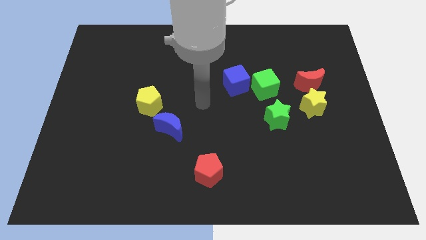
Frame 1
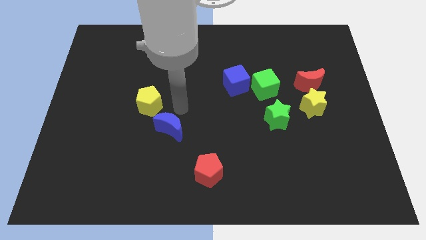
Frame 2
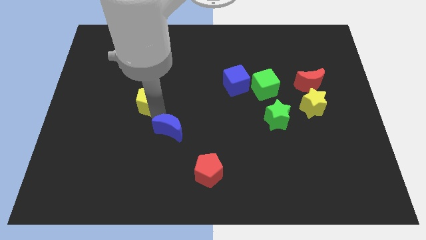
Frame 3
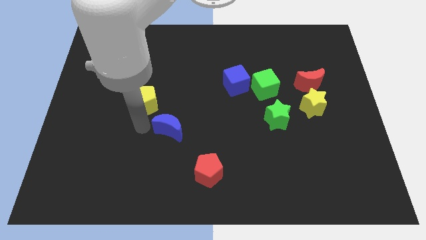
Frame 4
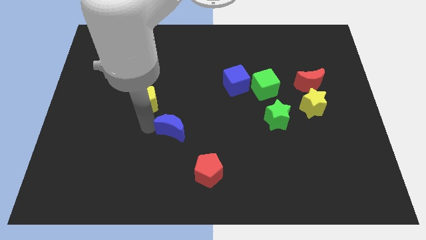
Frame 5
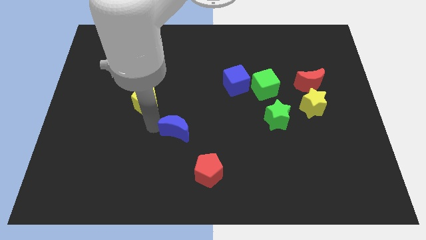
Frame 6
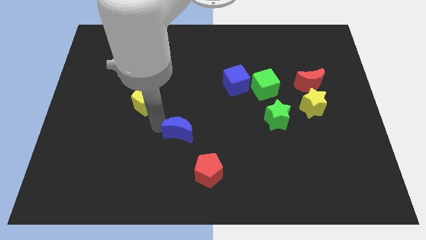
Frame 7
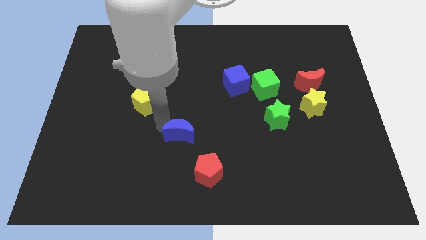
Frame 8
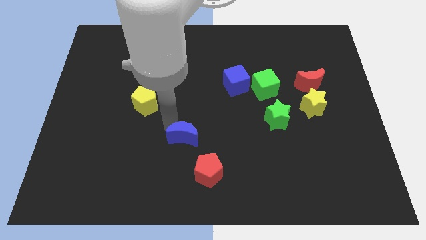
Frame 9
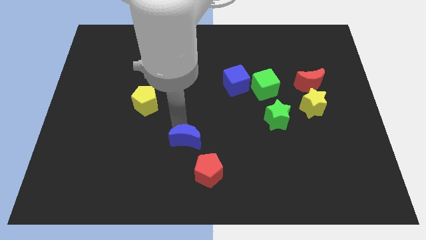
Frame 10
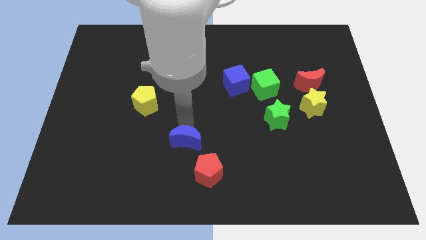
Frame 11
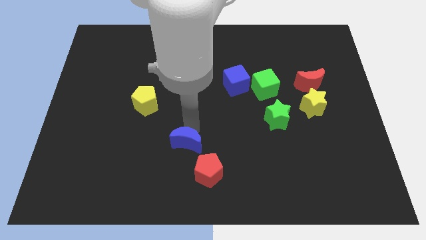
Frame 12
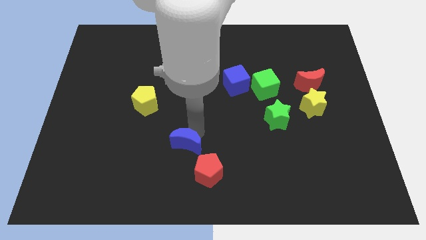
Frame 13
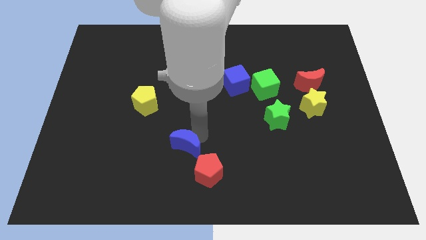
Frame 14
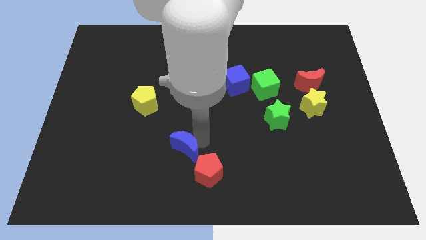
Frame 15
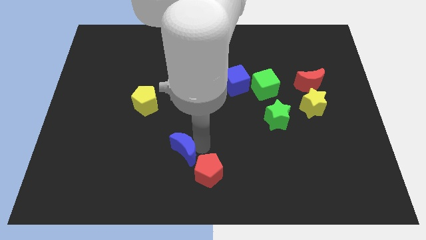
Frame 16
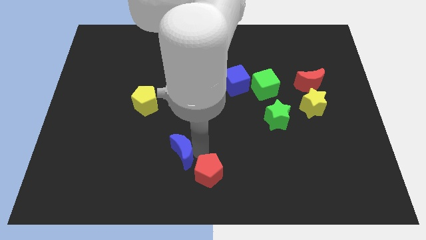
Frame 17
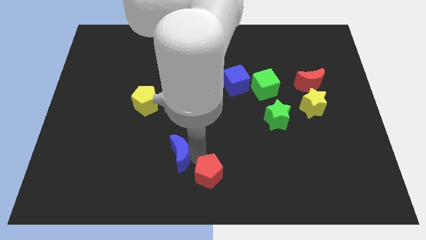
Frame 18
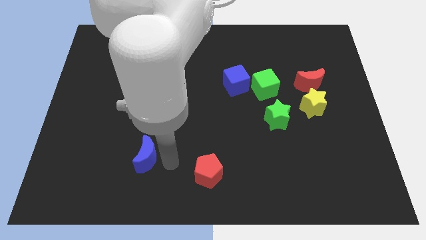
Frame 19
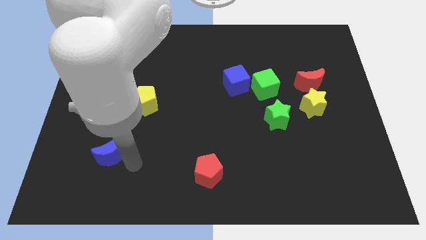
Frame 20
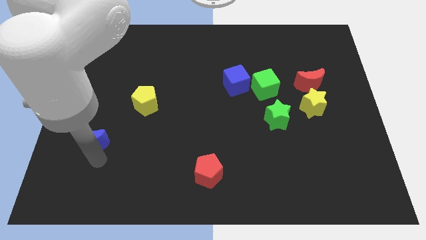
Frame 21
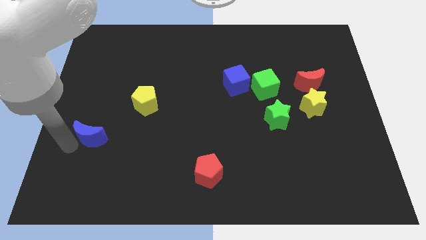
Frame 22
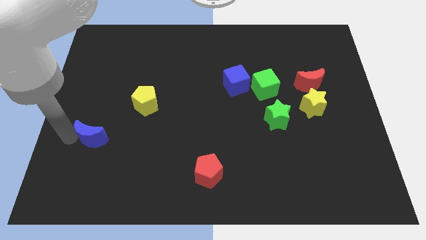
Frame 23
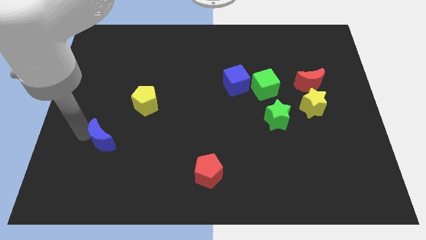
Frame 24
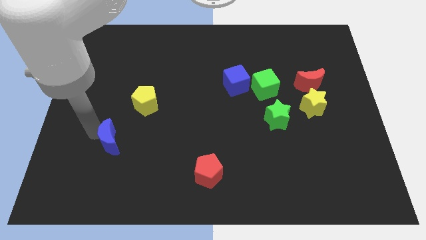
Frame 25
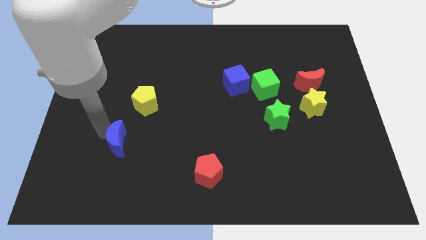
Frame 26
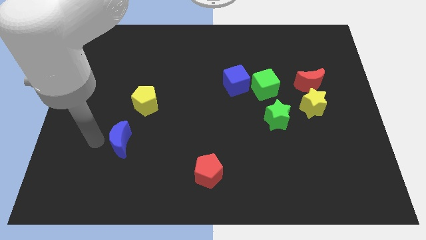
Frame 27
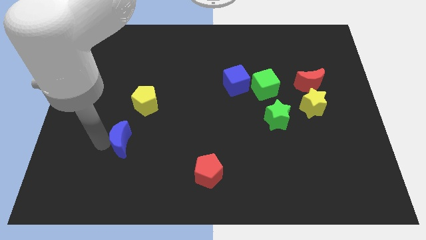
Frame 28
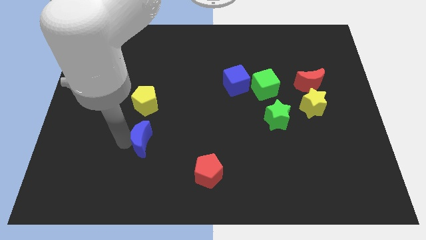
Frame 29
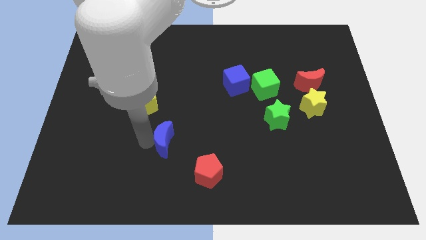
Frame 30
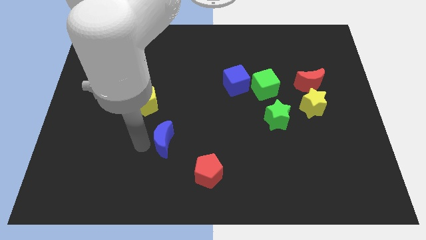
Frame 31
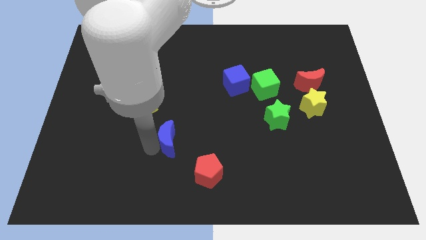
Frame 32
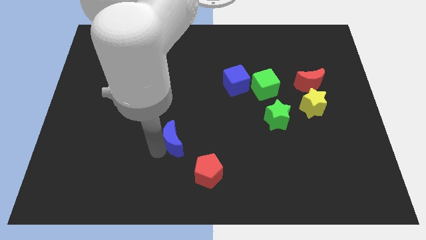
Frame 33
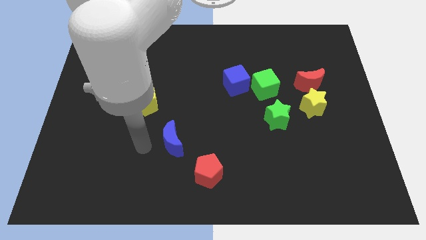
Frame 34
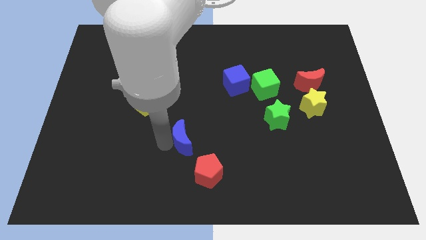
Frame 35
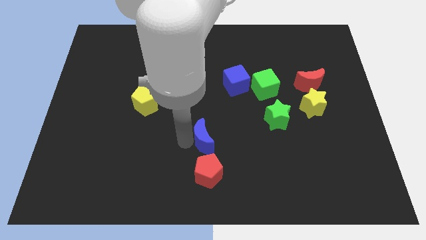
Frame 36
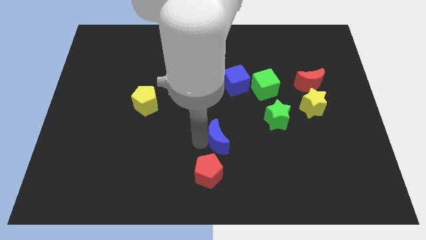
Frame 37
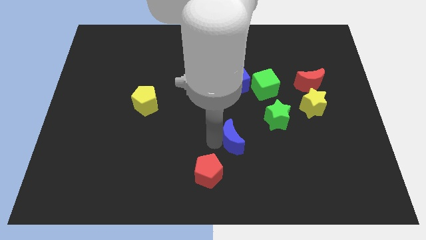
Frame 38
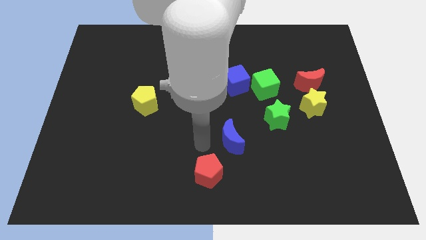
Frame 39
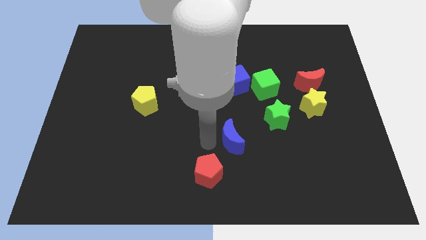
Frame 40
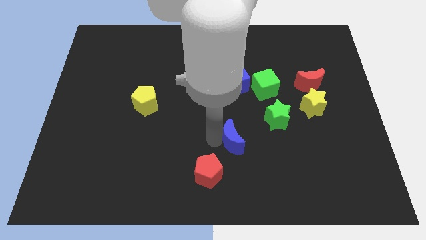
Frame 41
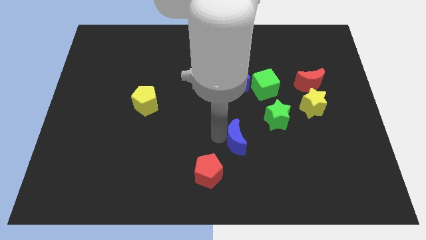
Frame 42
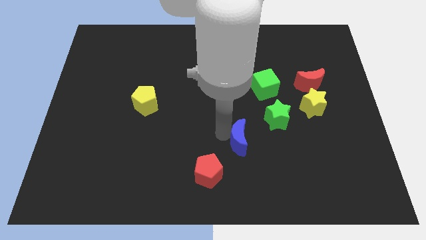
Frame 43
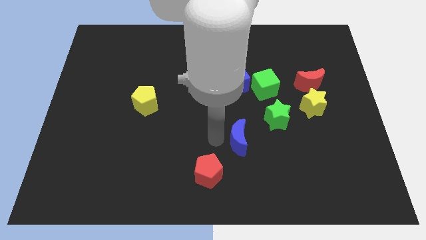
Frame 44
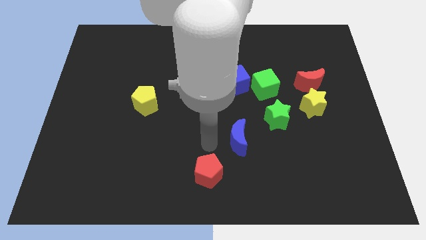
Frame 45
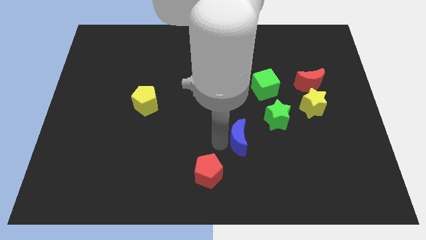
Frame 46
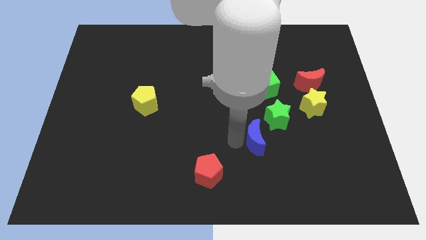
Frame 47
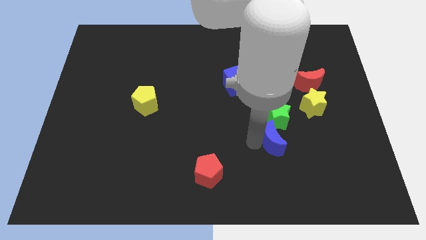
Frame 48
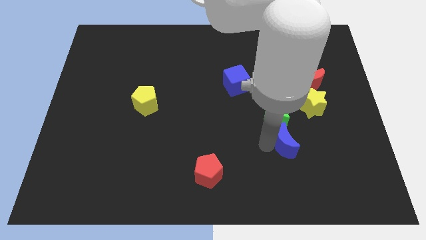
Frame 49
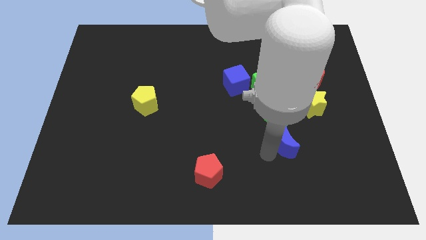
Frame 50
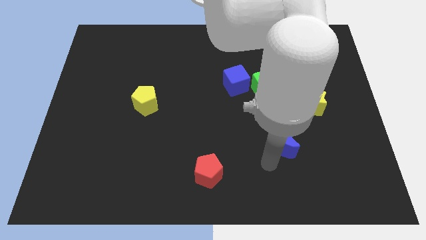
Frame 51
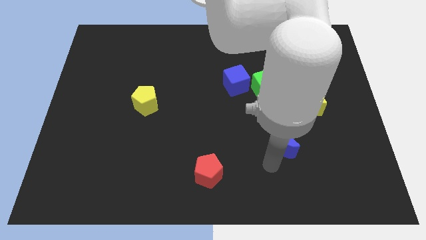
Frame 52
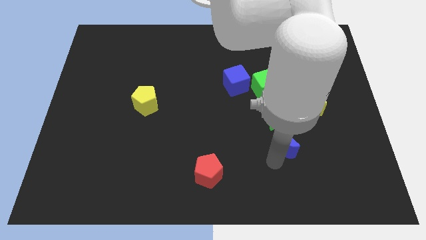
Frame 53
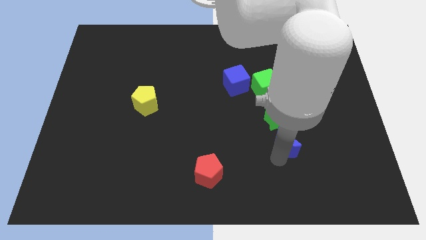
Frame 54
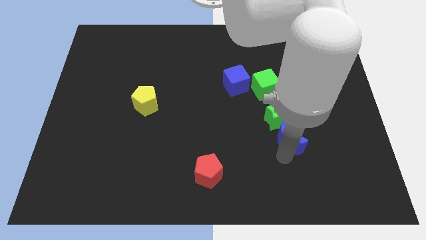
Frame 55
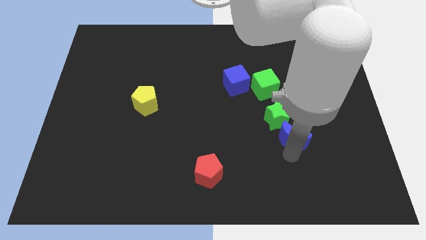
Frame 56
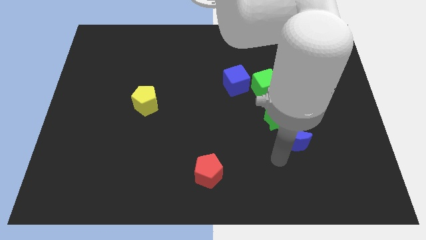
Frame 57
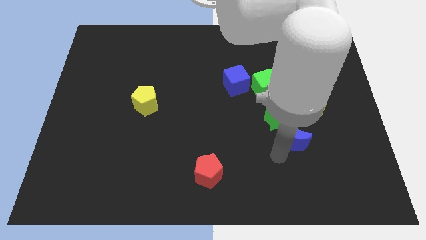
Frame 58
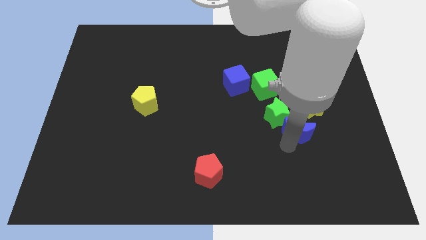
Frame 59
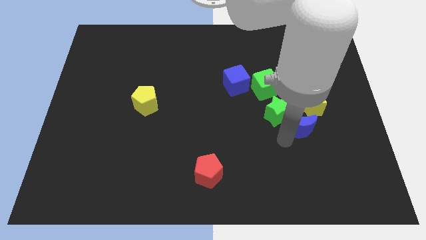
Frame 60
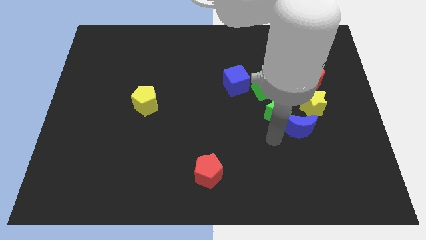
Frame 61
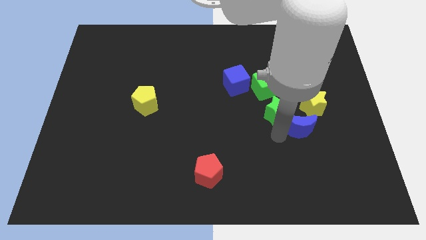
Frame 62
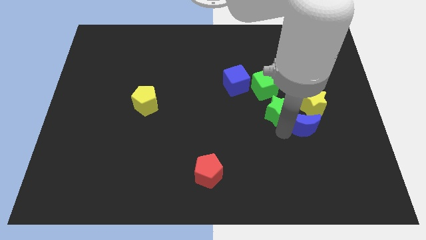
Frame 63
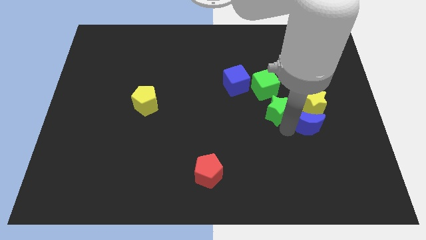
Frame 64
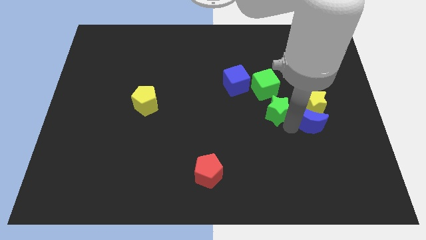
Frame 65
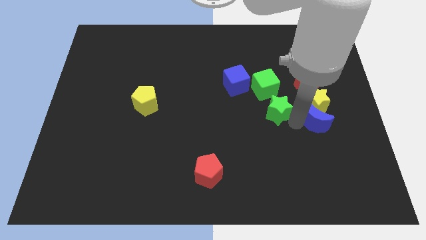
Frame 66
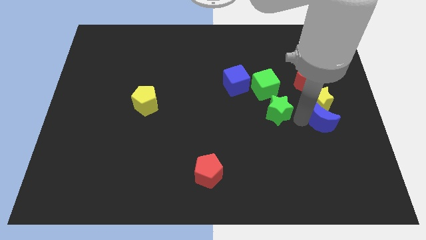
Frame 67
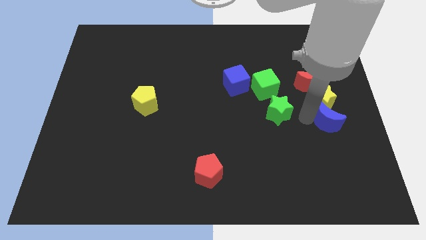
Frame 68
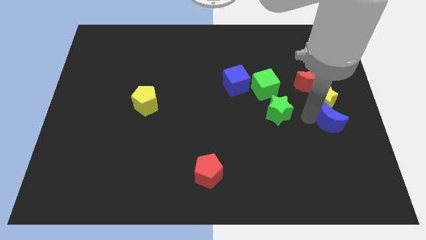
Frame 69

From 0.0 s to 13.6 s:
move the blue moon to the center right

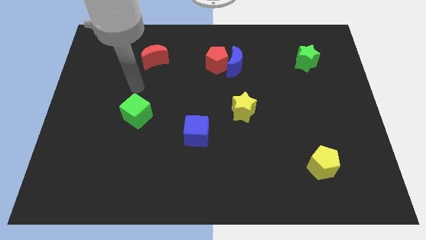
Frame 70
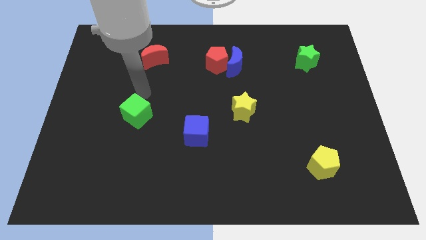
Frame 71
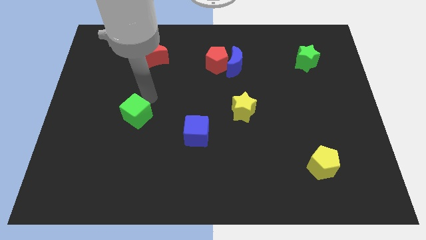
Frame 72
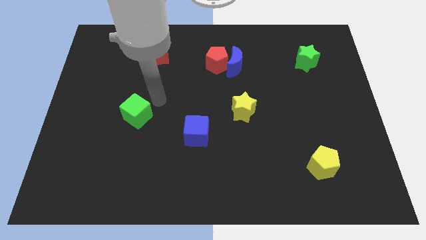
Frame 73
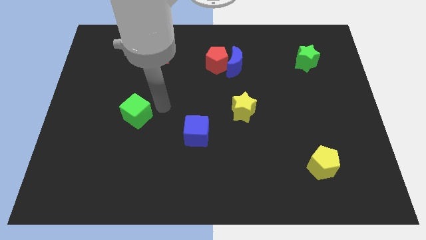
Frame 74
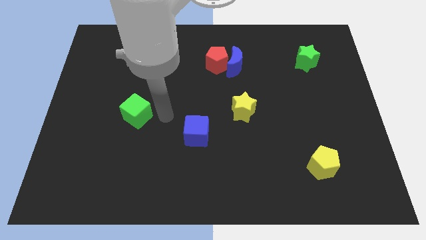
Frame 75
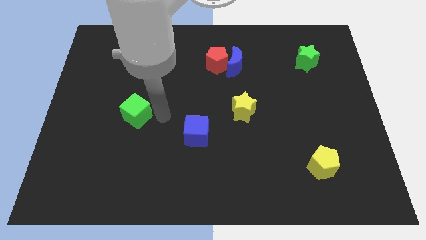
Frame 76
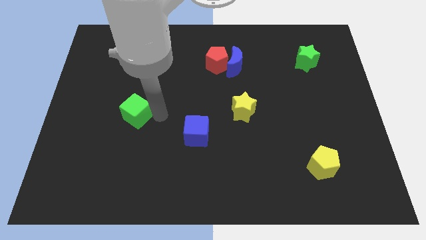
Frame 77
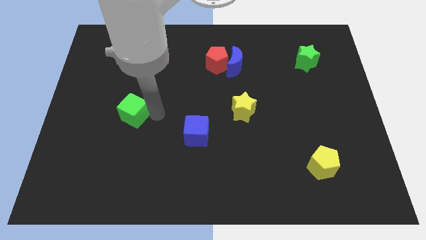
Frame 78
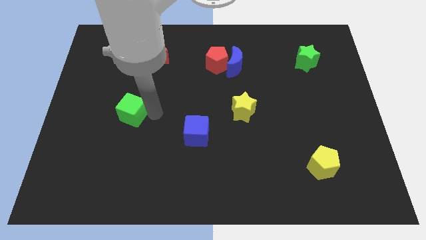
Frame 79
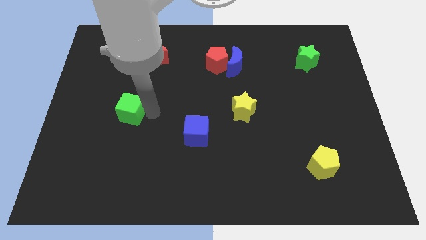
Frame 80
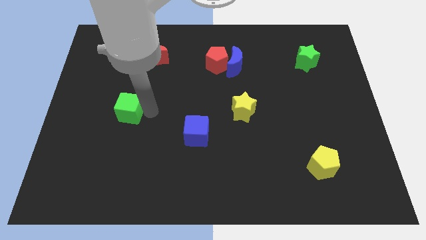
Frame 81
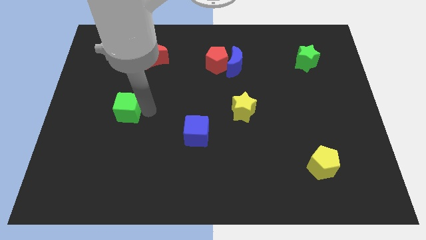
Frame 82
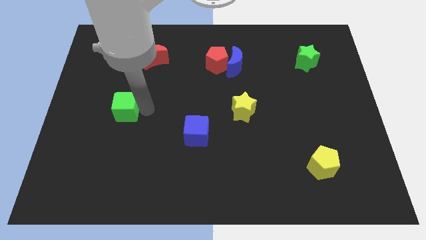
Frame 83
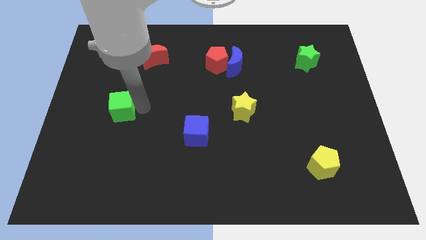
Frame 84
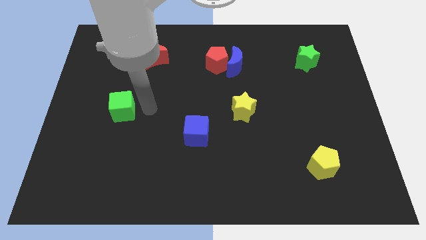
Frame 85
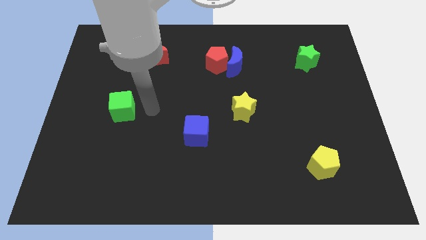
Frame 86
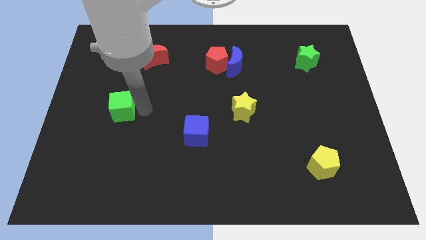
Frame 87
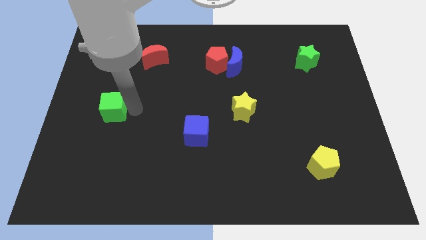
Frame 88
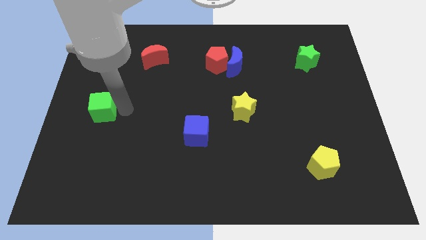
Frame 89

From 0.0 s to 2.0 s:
push the green cube to the center left

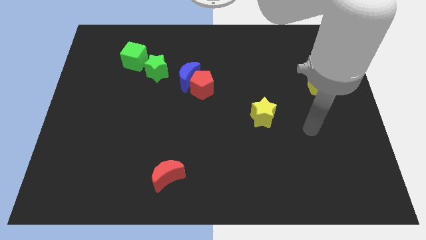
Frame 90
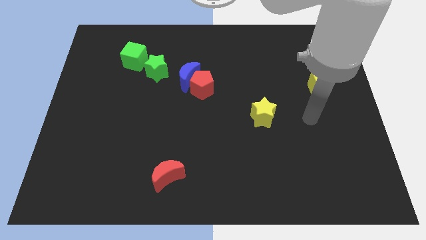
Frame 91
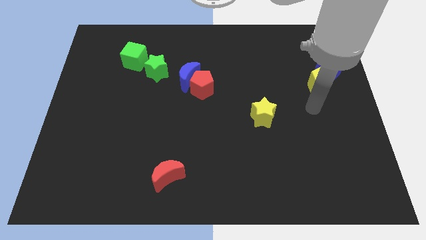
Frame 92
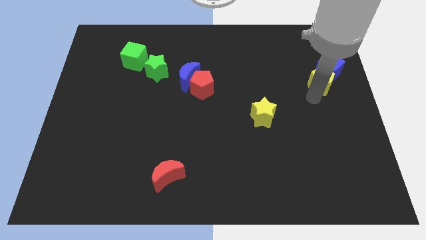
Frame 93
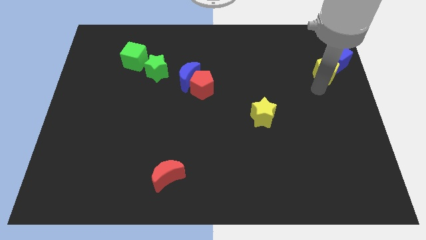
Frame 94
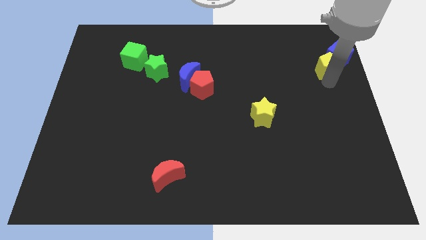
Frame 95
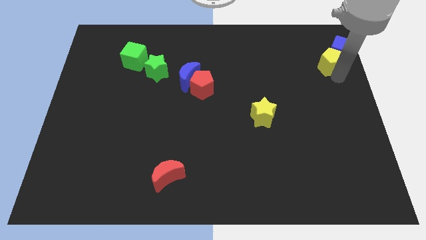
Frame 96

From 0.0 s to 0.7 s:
put the blue cube to the top right corner
